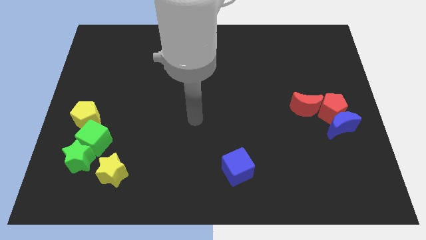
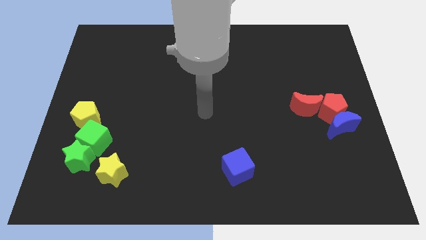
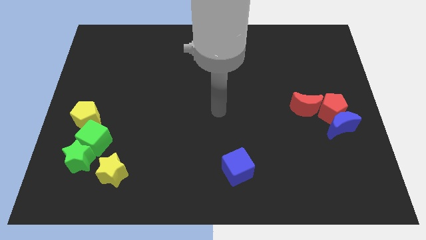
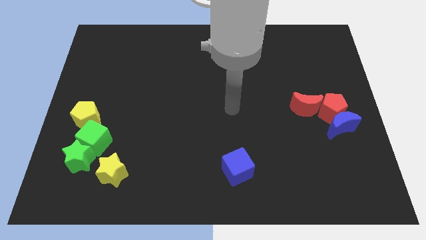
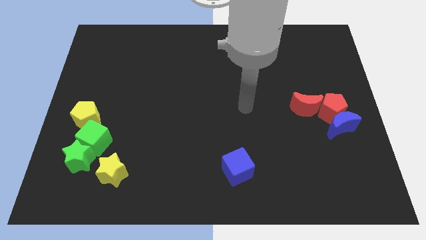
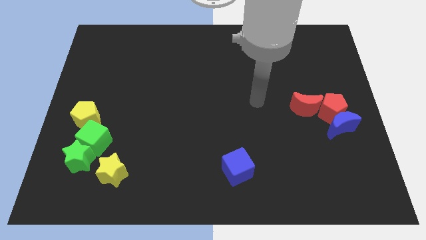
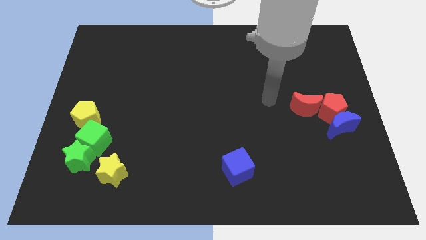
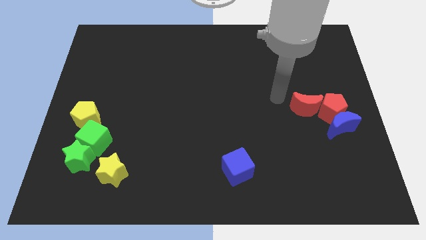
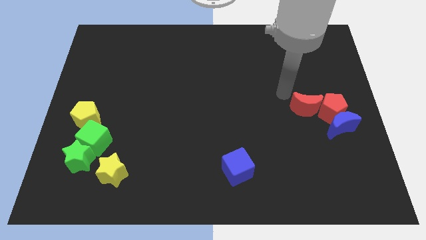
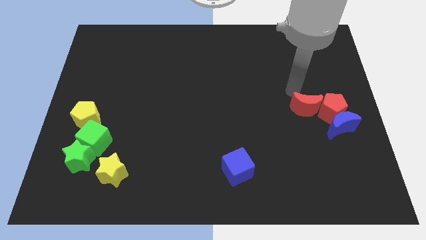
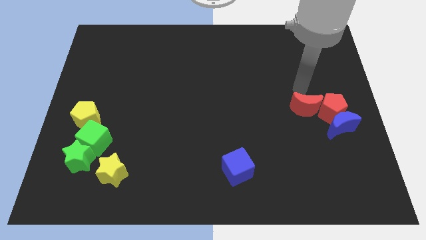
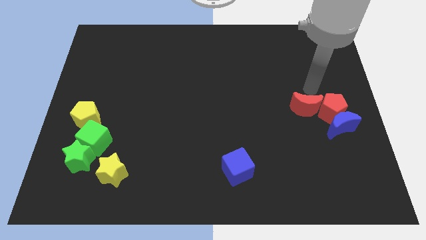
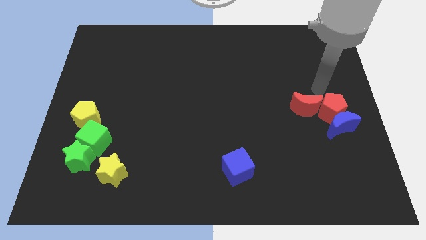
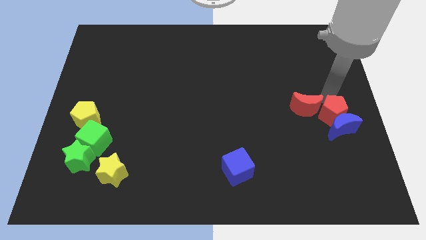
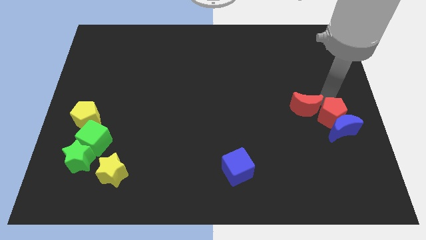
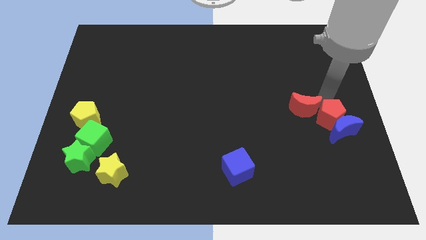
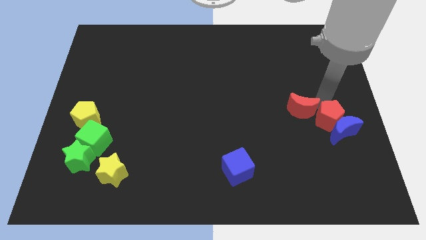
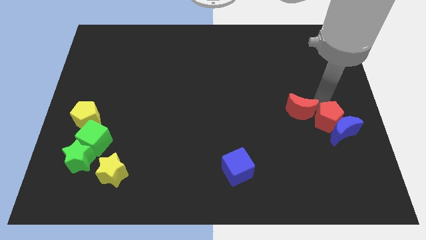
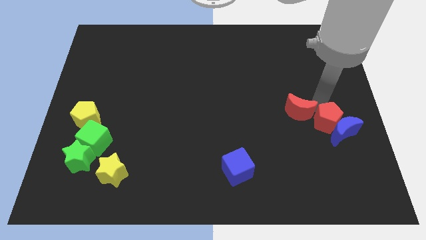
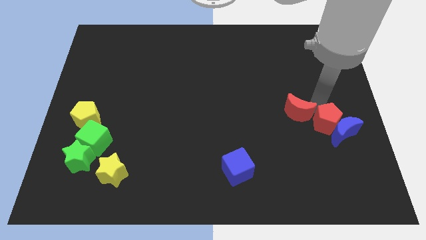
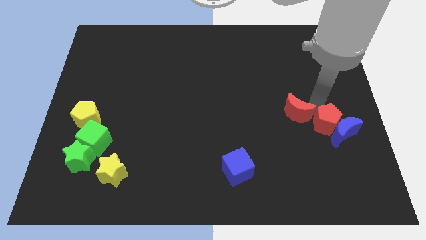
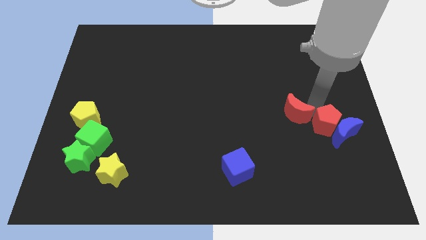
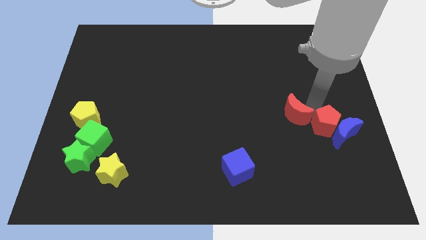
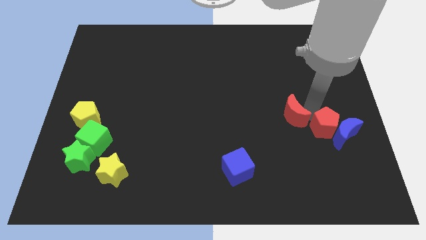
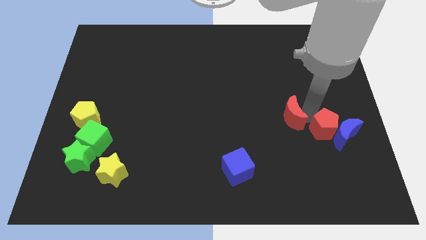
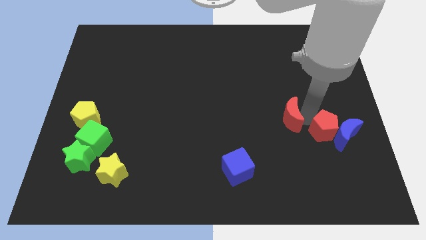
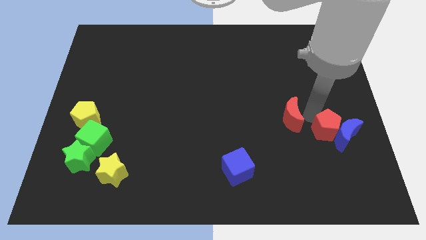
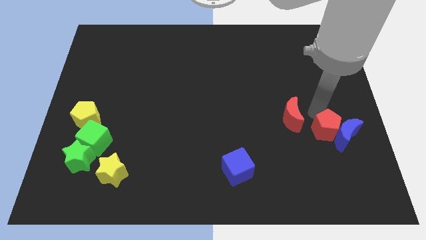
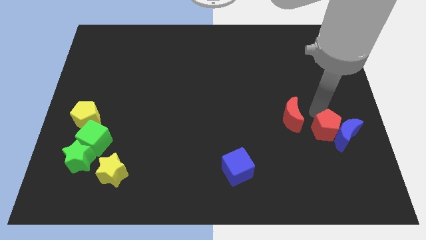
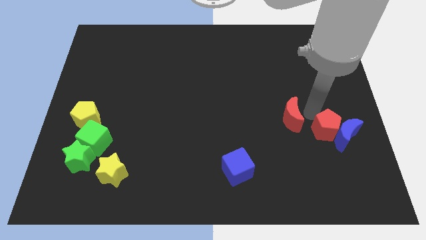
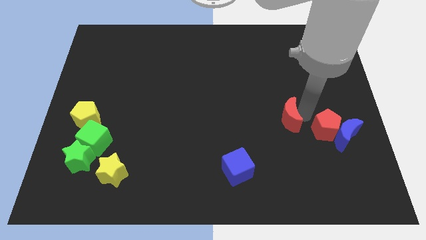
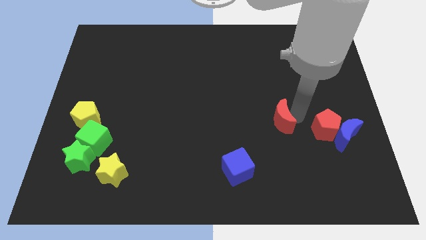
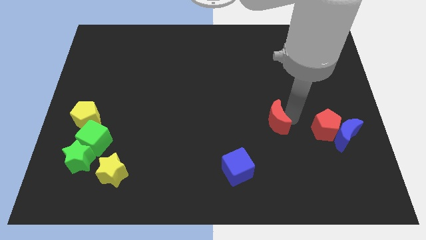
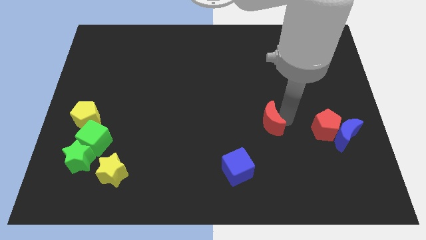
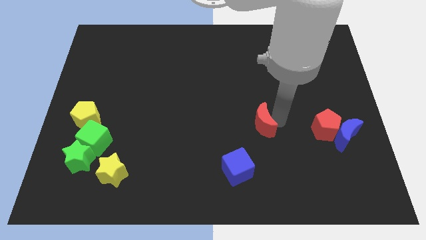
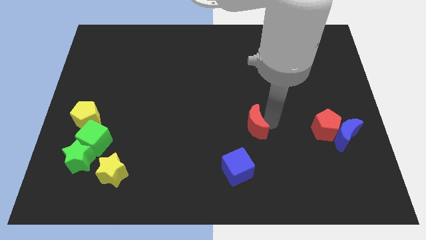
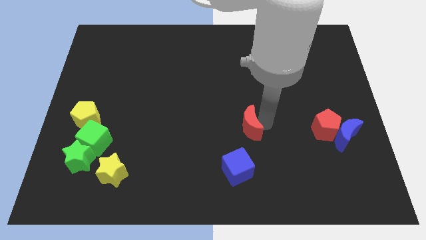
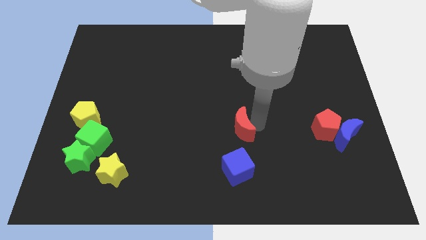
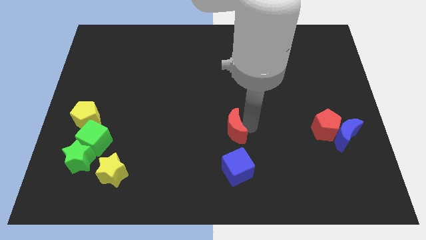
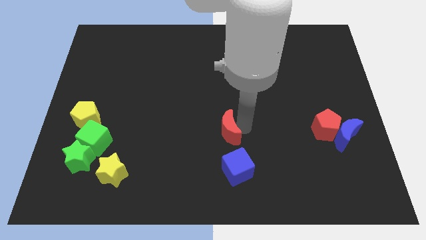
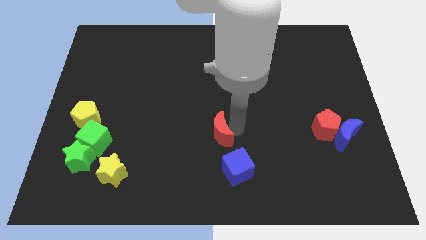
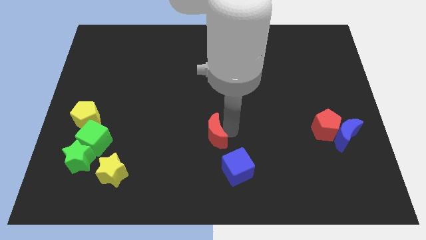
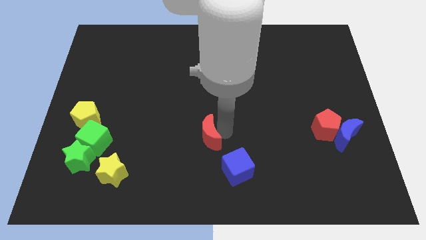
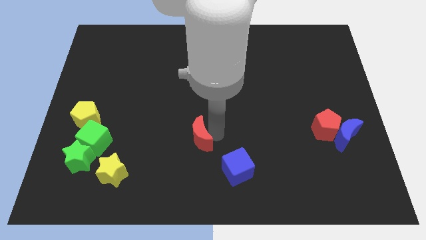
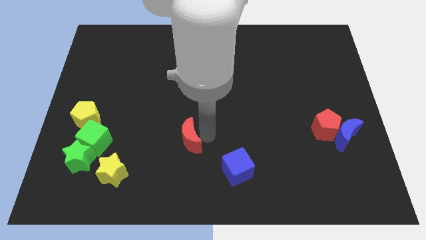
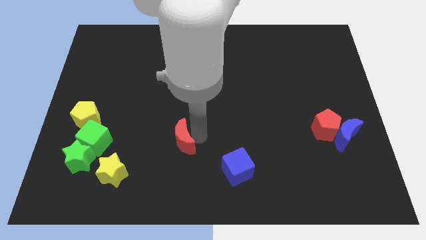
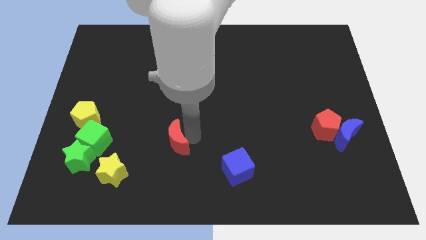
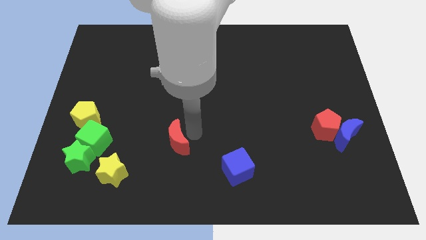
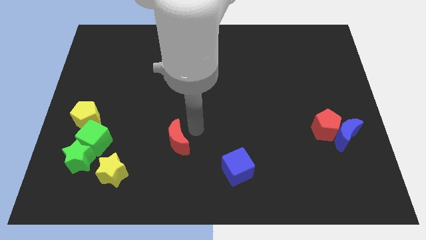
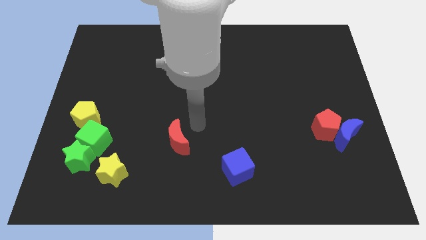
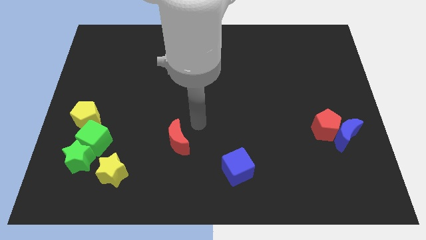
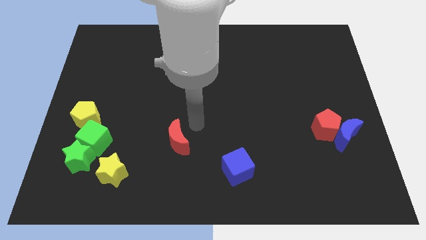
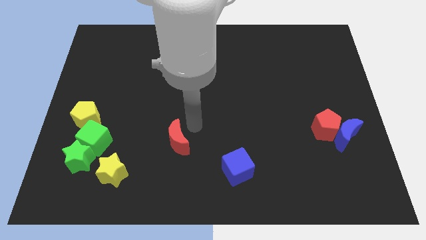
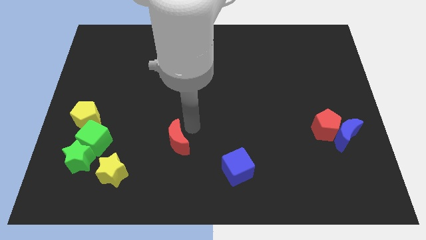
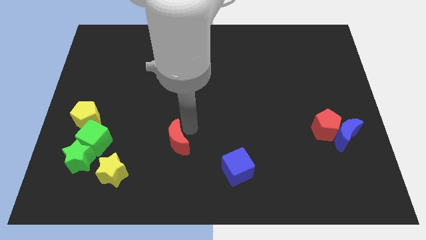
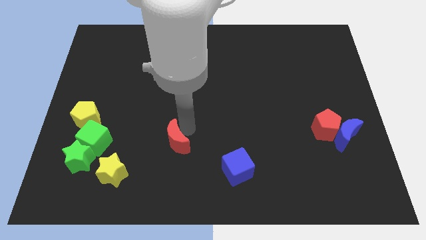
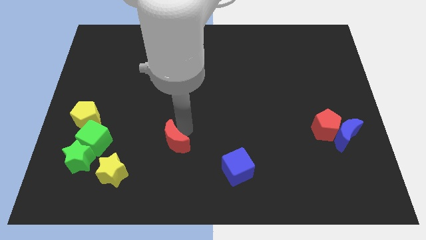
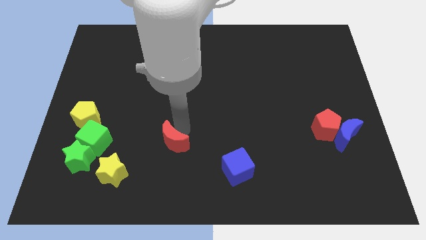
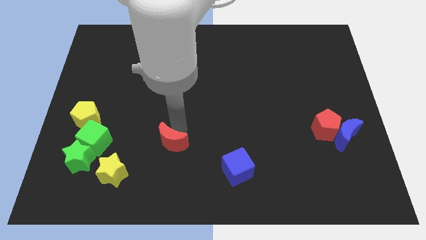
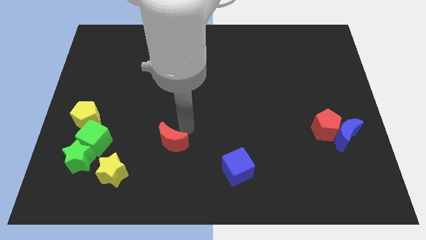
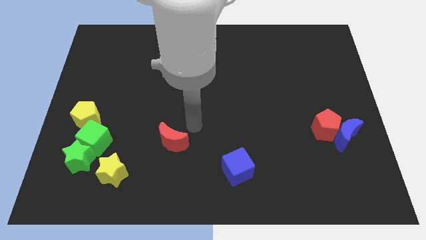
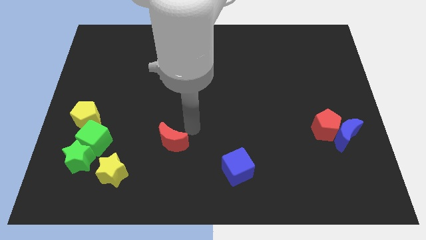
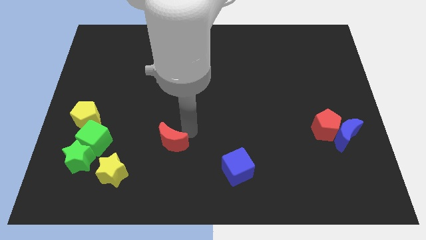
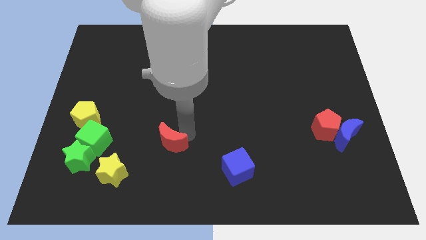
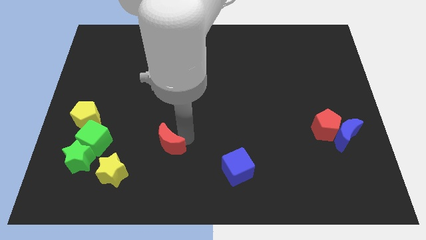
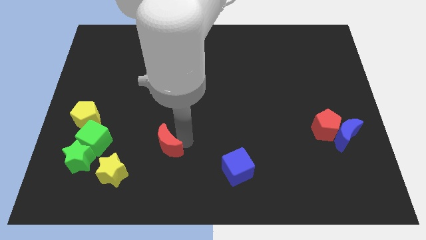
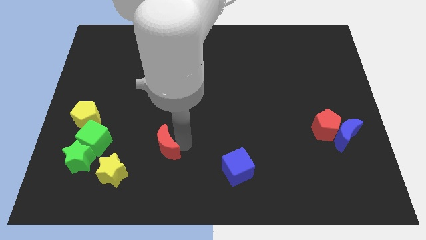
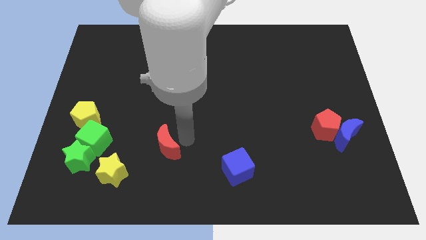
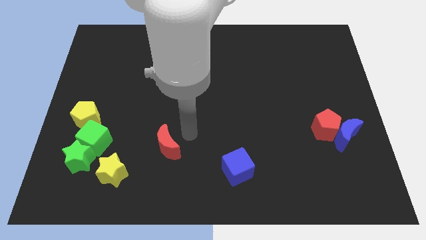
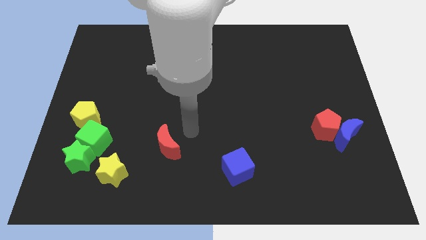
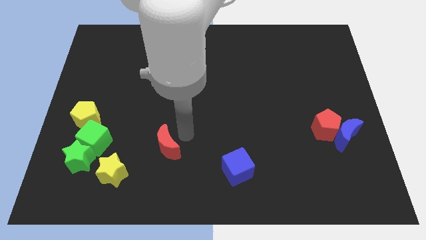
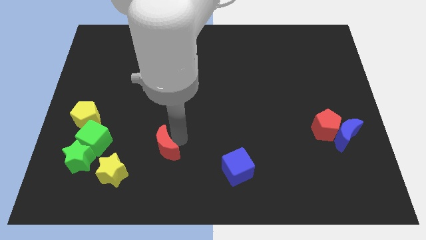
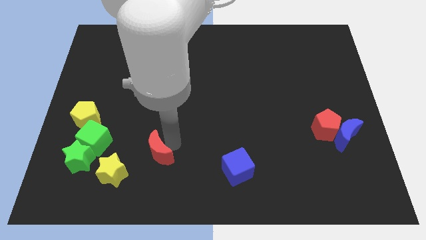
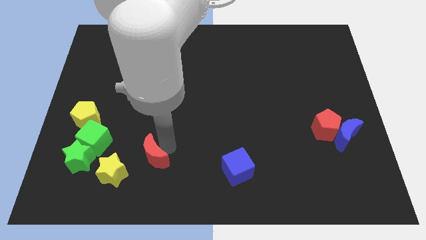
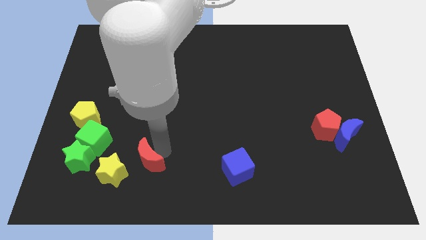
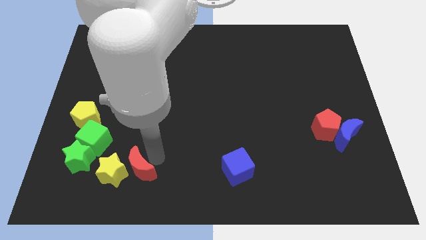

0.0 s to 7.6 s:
move the red moon close to the yellow star
